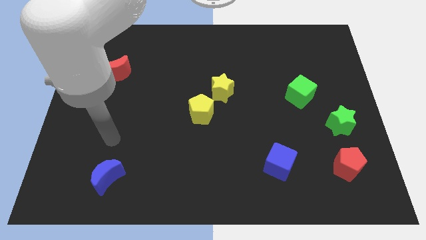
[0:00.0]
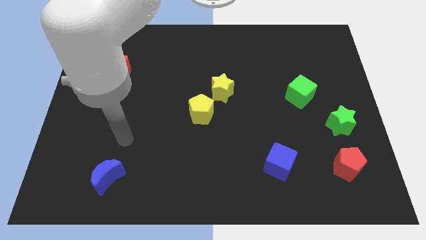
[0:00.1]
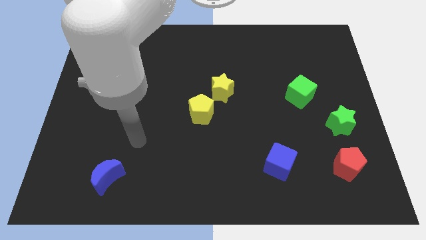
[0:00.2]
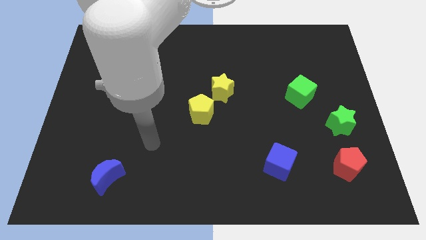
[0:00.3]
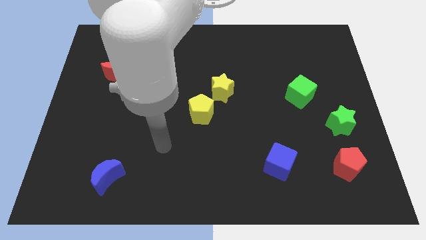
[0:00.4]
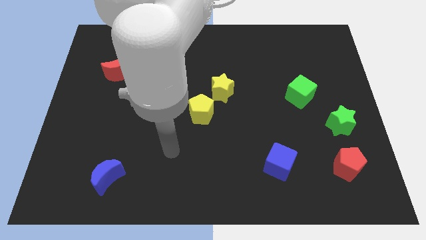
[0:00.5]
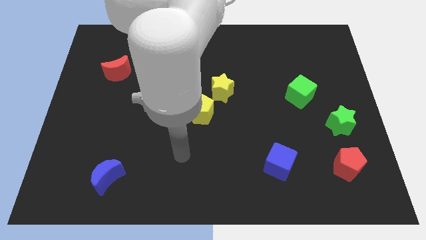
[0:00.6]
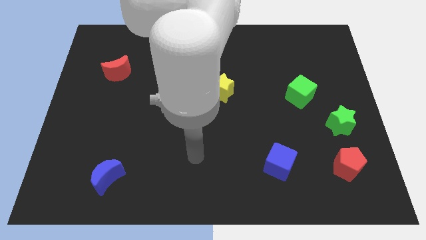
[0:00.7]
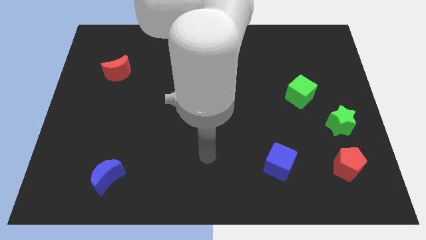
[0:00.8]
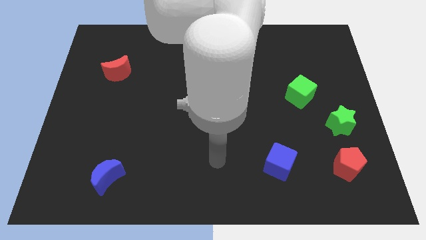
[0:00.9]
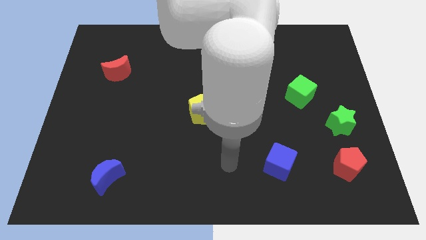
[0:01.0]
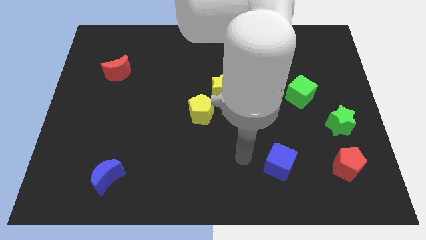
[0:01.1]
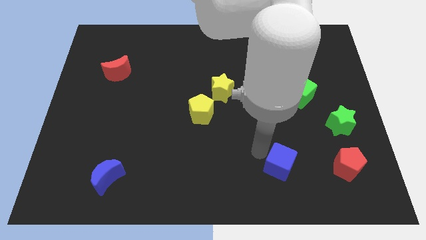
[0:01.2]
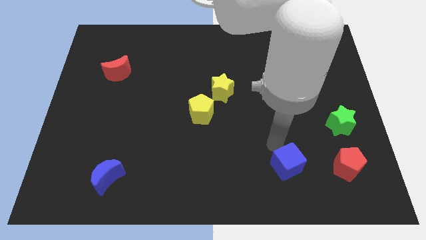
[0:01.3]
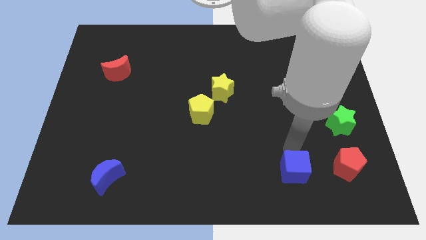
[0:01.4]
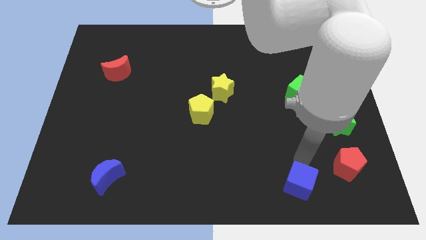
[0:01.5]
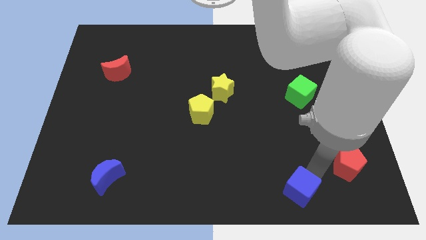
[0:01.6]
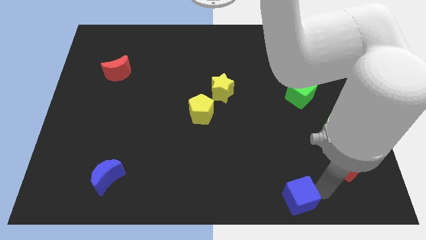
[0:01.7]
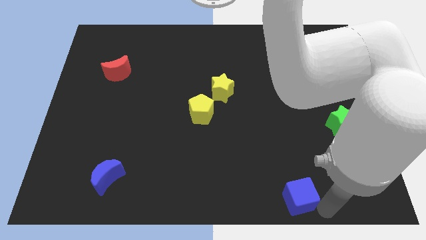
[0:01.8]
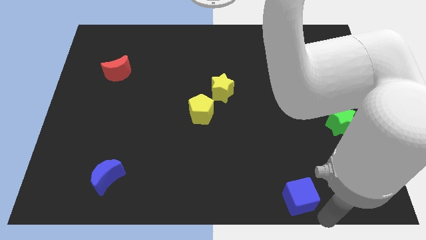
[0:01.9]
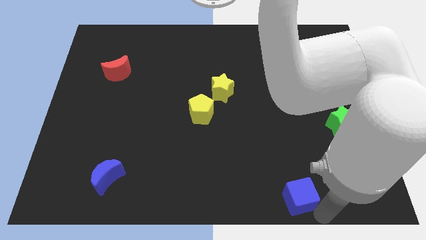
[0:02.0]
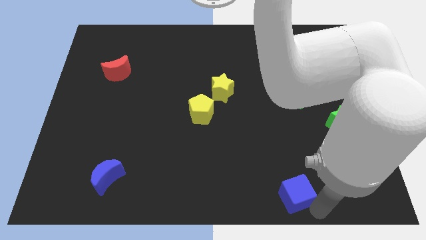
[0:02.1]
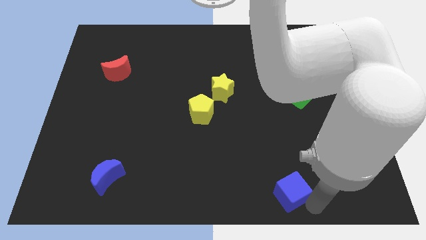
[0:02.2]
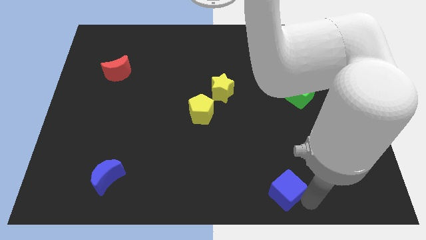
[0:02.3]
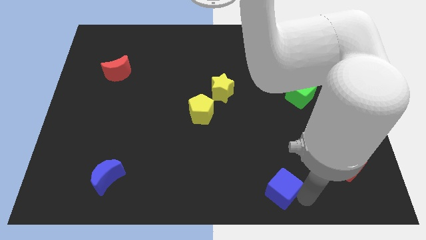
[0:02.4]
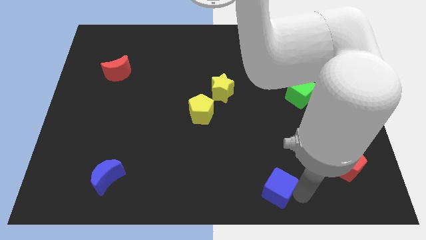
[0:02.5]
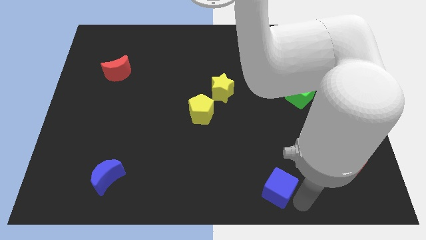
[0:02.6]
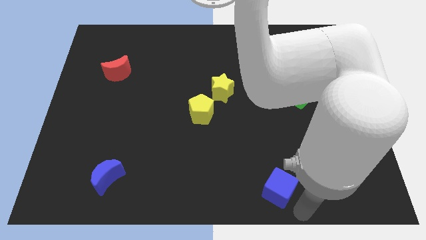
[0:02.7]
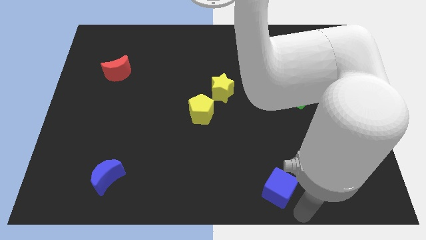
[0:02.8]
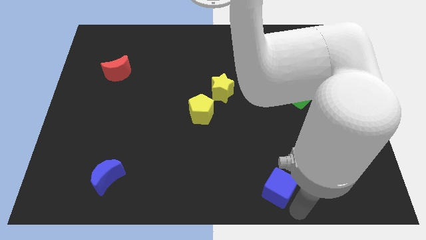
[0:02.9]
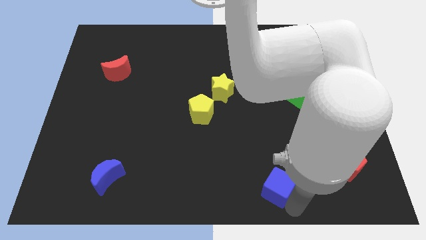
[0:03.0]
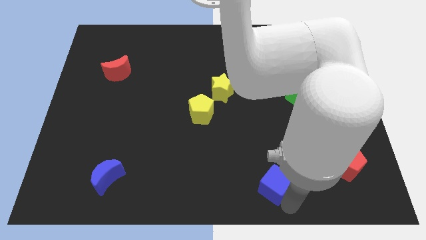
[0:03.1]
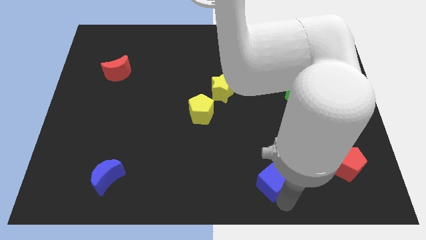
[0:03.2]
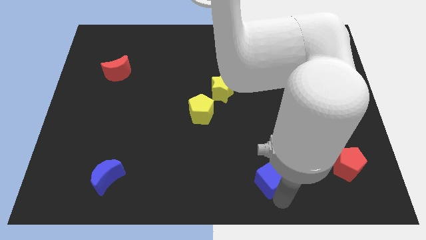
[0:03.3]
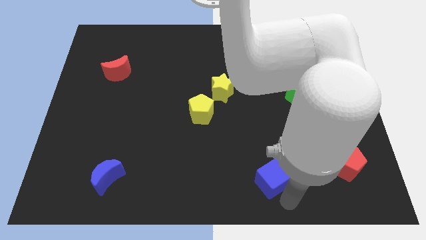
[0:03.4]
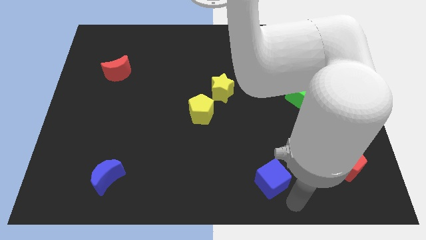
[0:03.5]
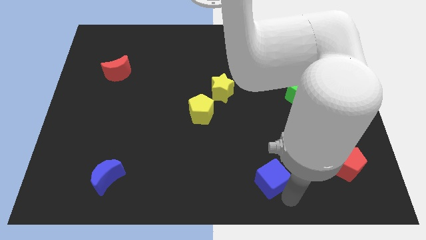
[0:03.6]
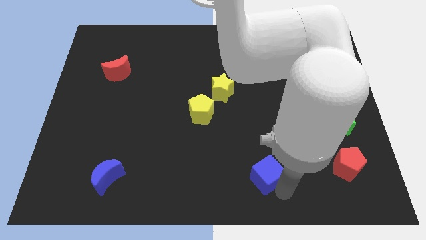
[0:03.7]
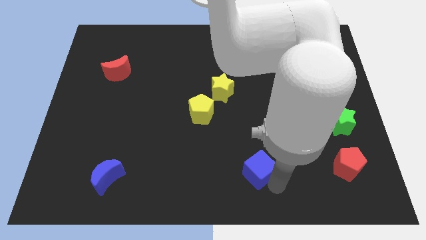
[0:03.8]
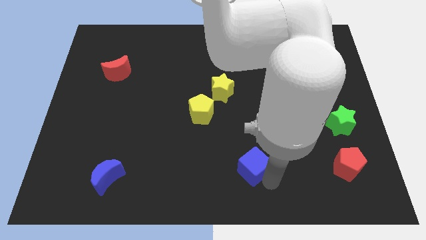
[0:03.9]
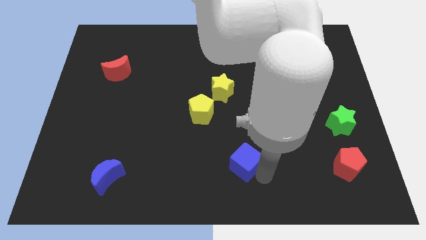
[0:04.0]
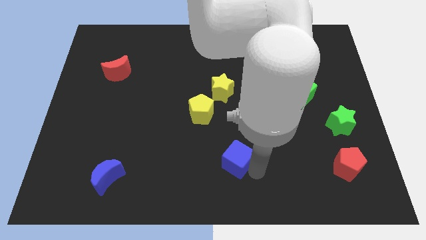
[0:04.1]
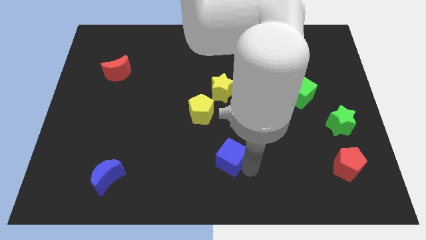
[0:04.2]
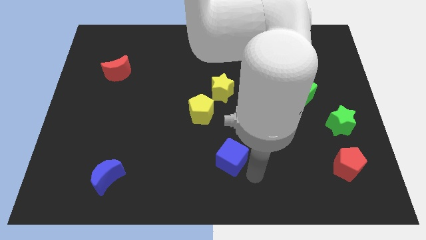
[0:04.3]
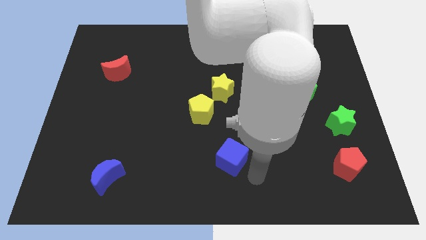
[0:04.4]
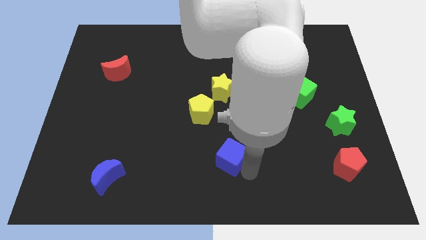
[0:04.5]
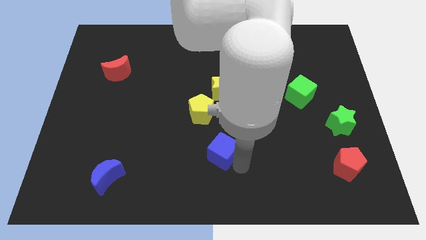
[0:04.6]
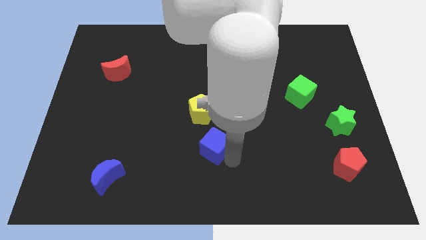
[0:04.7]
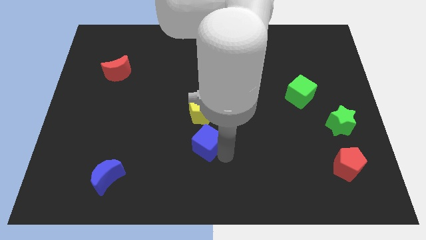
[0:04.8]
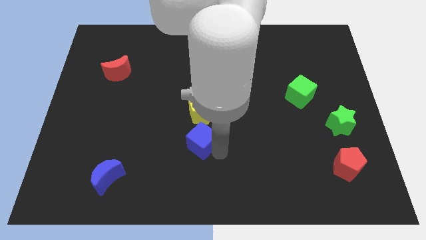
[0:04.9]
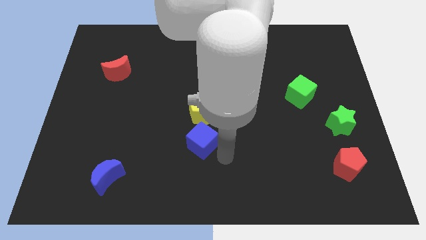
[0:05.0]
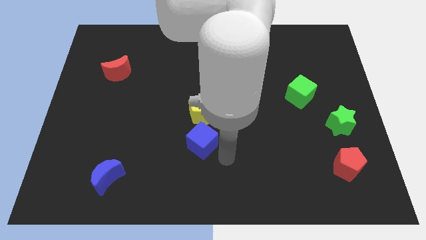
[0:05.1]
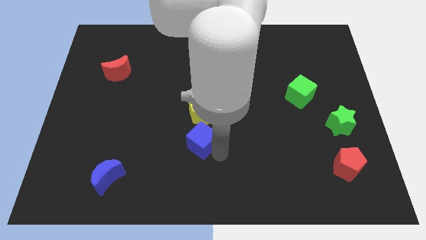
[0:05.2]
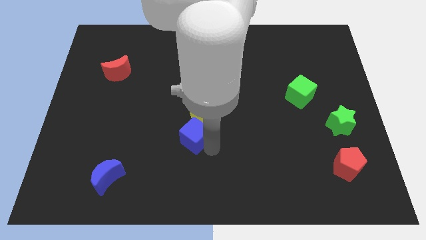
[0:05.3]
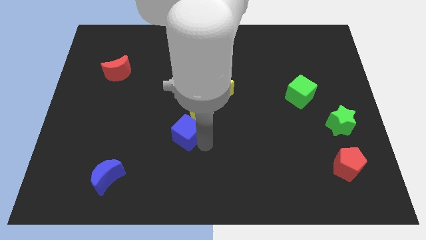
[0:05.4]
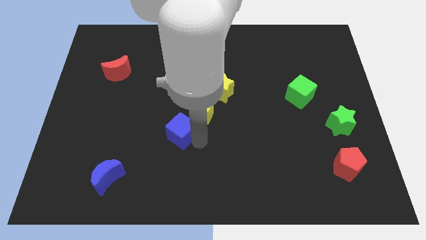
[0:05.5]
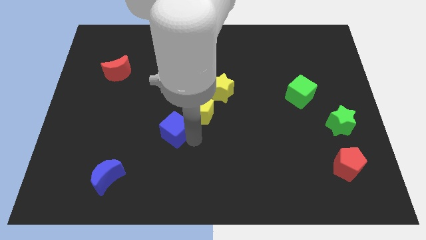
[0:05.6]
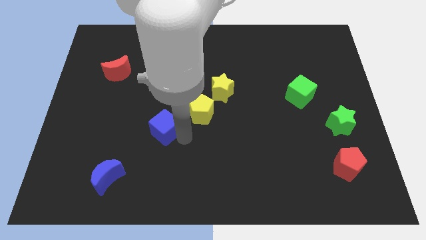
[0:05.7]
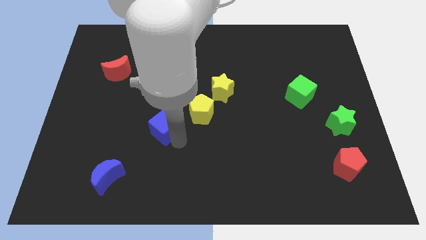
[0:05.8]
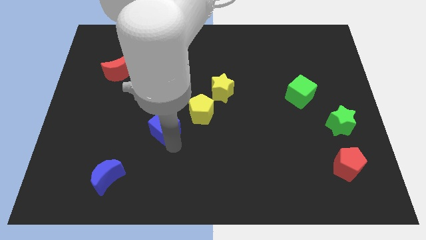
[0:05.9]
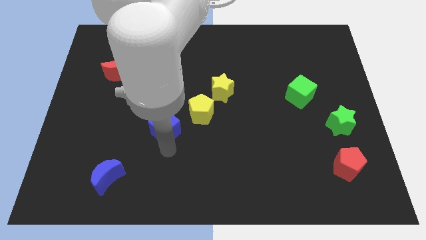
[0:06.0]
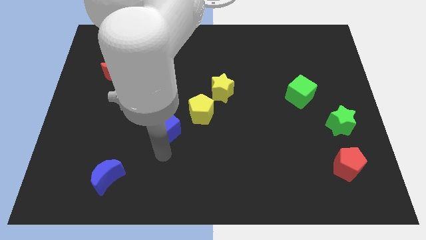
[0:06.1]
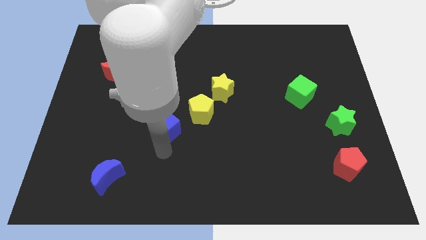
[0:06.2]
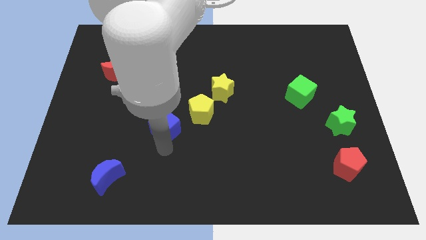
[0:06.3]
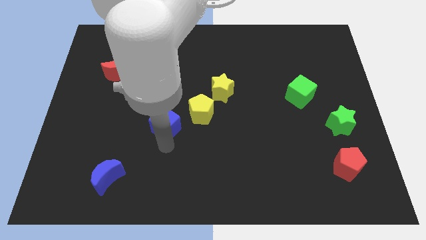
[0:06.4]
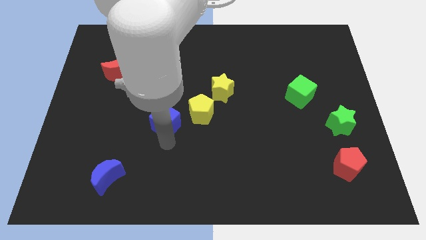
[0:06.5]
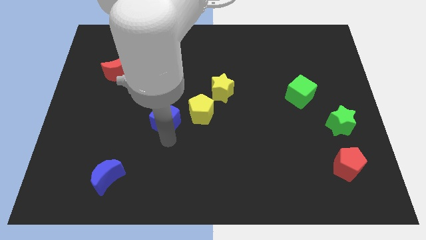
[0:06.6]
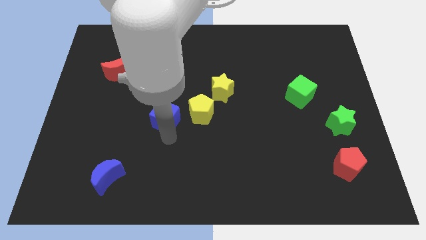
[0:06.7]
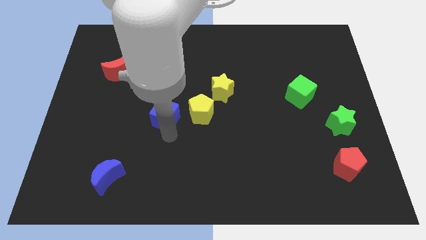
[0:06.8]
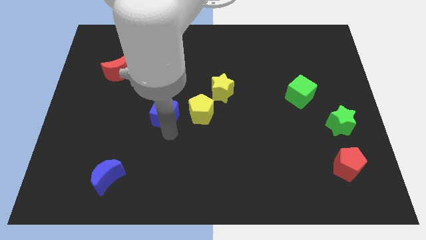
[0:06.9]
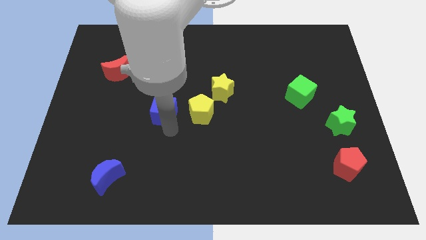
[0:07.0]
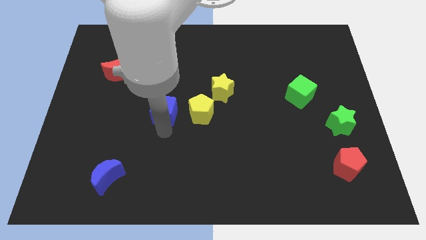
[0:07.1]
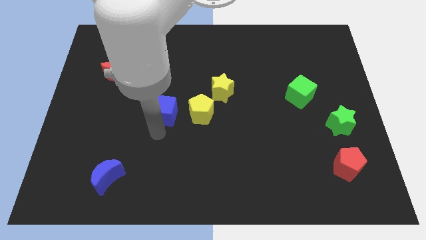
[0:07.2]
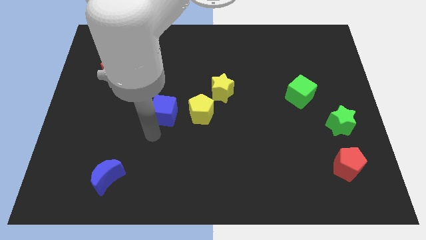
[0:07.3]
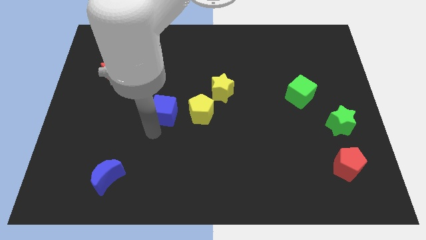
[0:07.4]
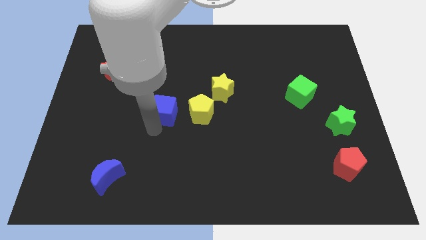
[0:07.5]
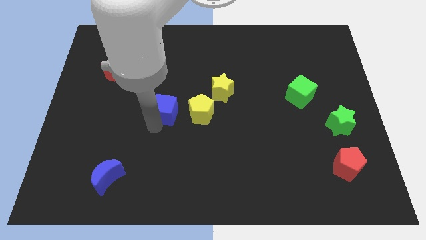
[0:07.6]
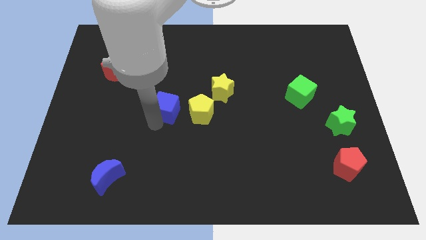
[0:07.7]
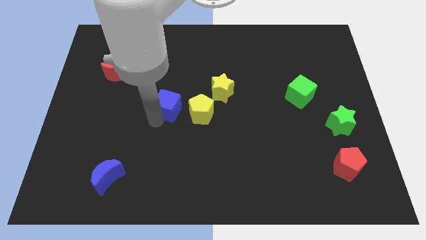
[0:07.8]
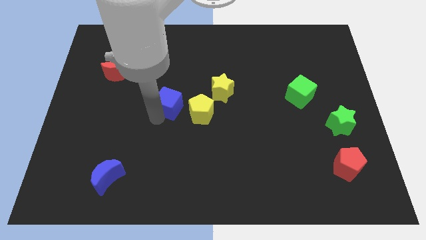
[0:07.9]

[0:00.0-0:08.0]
slide the blue cube just left of the yellow star
